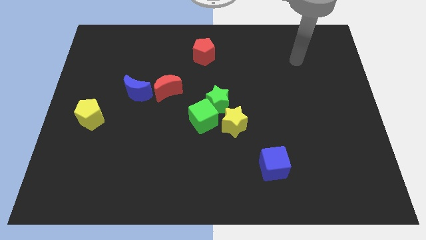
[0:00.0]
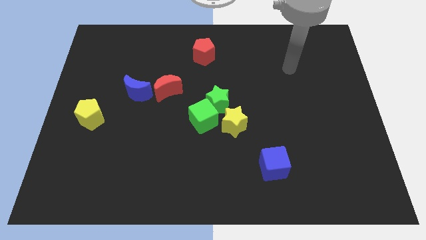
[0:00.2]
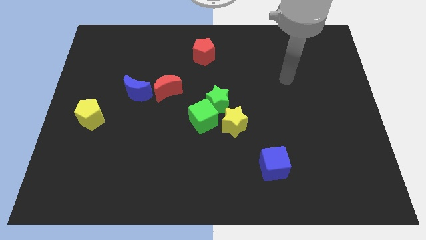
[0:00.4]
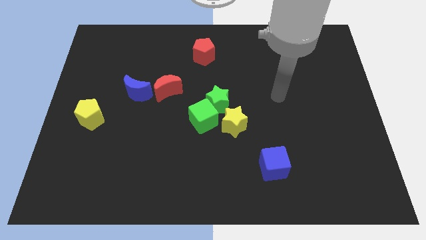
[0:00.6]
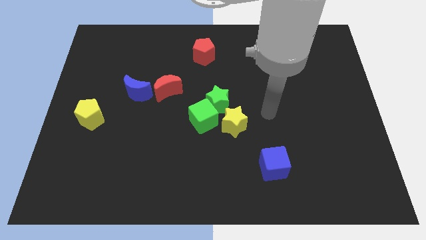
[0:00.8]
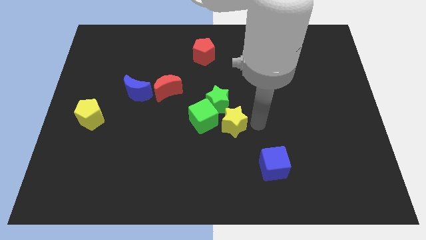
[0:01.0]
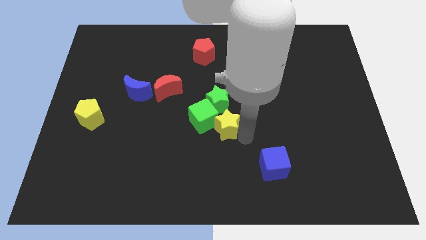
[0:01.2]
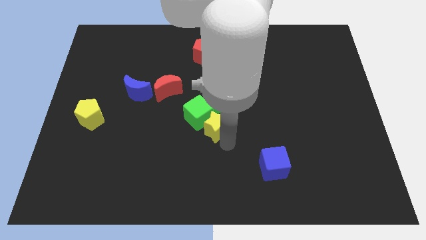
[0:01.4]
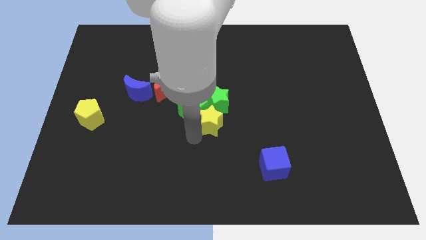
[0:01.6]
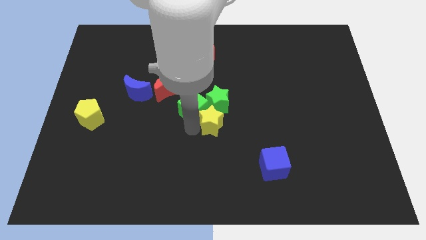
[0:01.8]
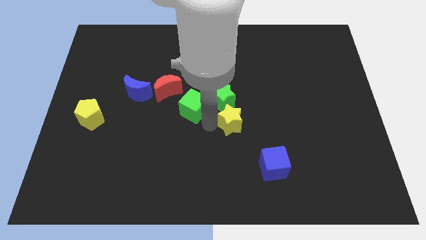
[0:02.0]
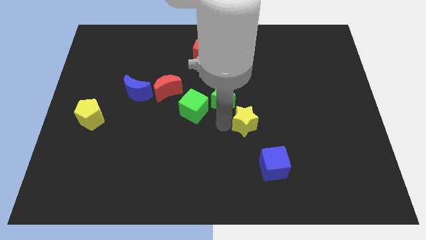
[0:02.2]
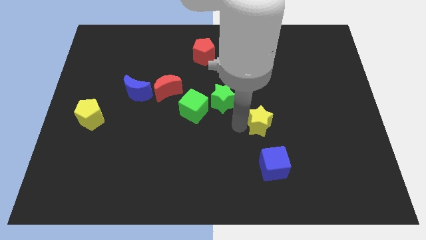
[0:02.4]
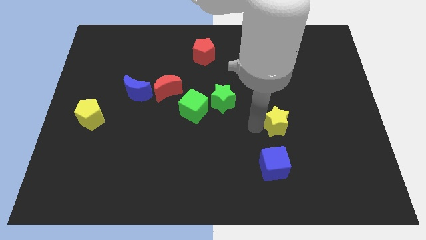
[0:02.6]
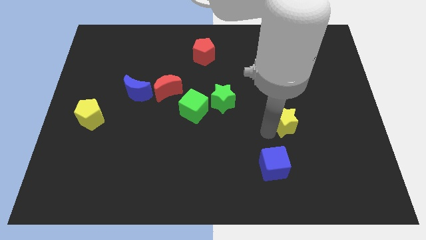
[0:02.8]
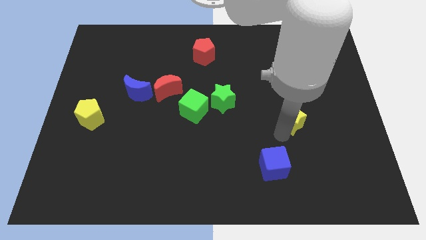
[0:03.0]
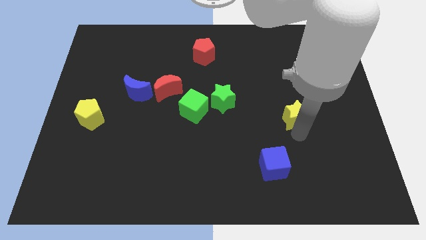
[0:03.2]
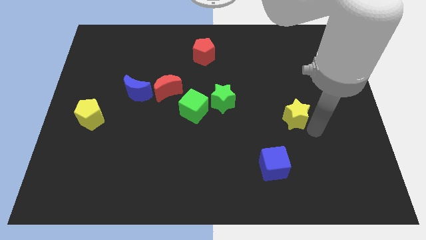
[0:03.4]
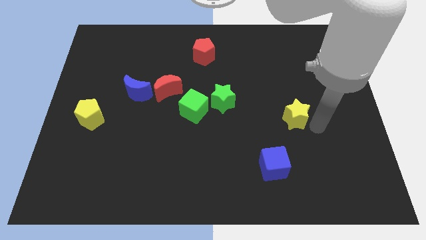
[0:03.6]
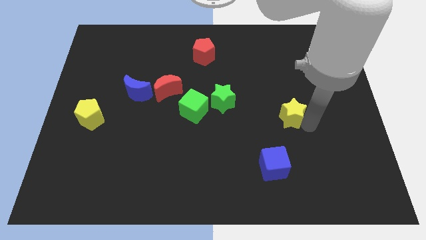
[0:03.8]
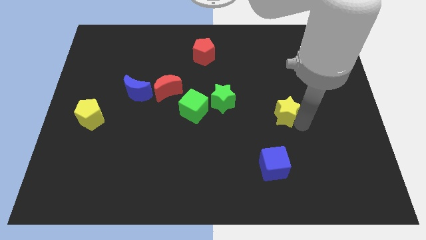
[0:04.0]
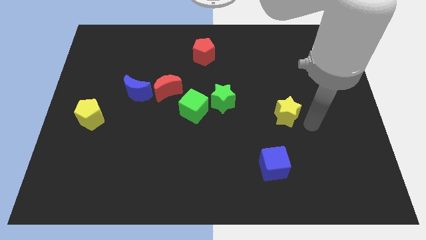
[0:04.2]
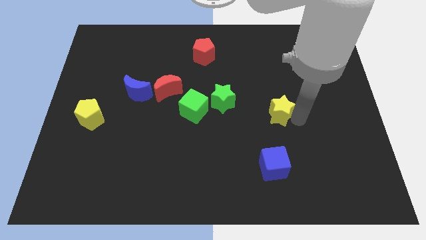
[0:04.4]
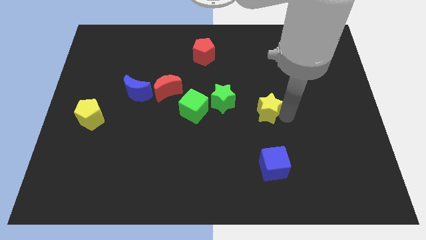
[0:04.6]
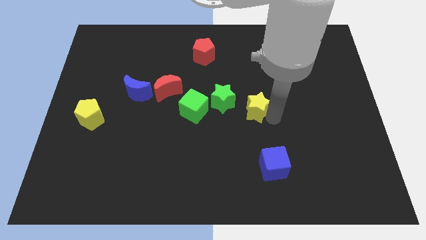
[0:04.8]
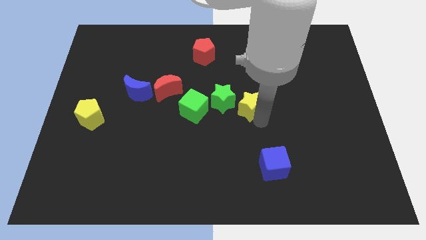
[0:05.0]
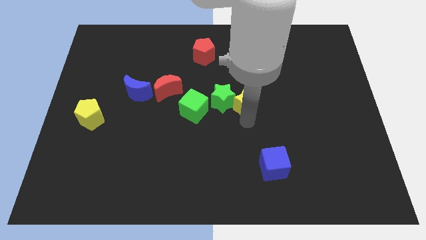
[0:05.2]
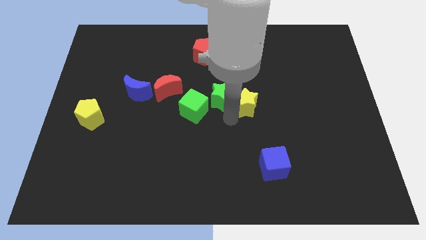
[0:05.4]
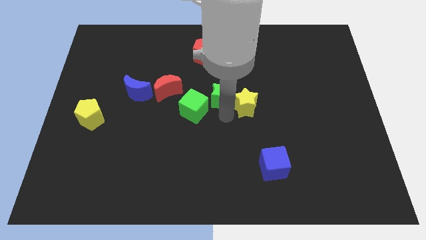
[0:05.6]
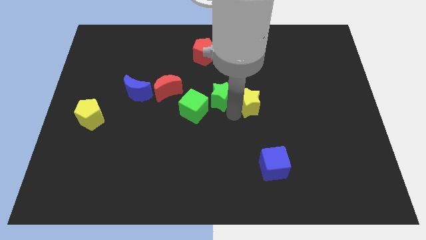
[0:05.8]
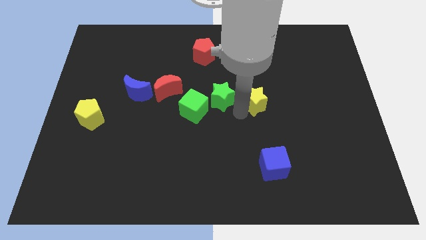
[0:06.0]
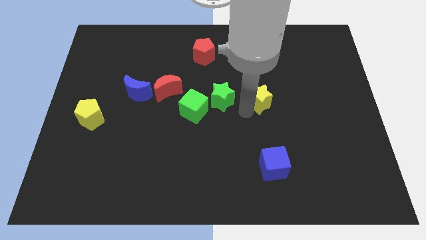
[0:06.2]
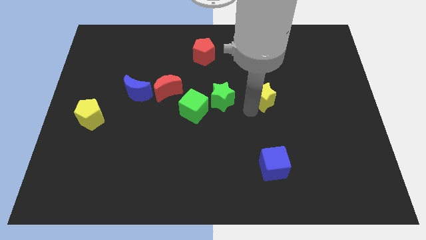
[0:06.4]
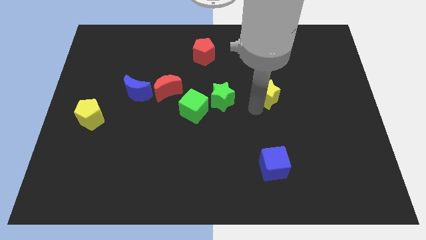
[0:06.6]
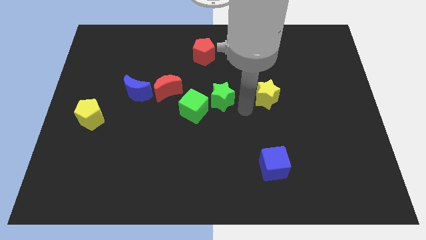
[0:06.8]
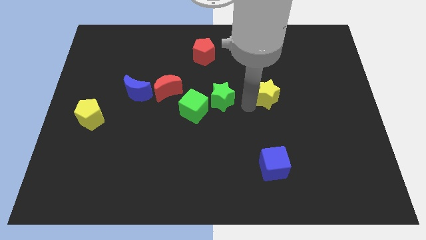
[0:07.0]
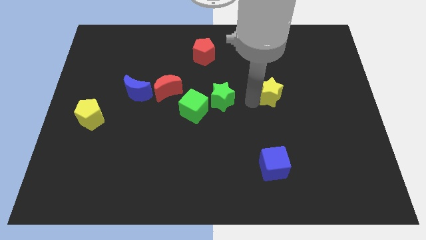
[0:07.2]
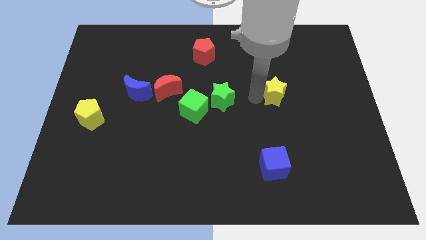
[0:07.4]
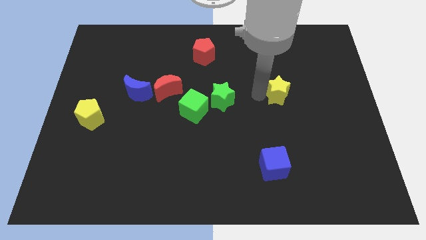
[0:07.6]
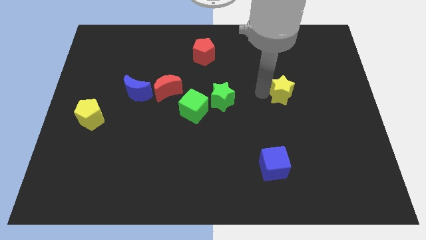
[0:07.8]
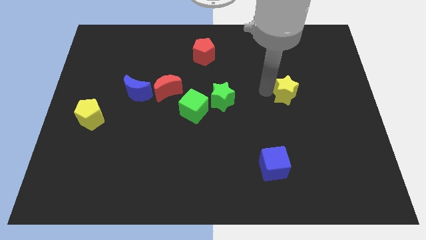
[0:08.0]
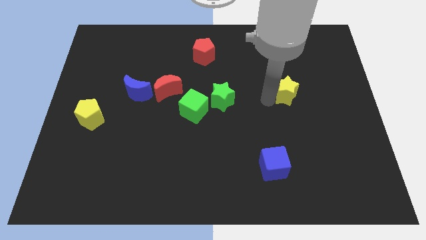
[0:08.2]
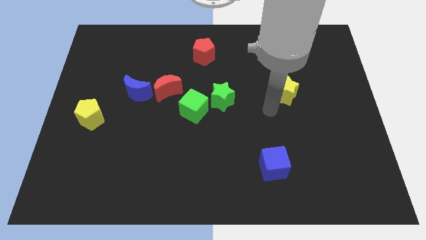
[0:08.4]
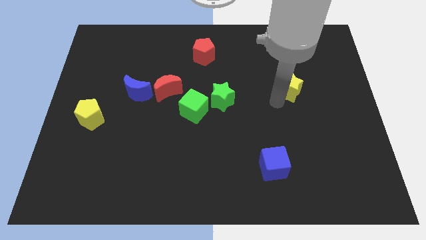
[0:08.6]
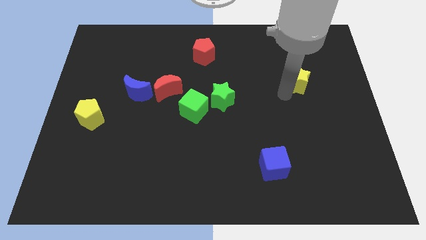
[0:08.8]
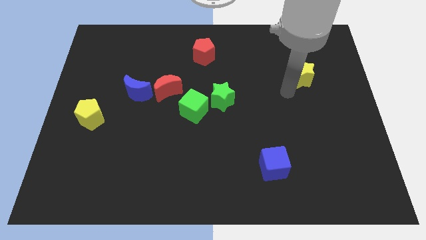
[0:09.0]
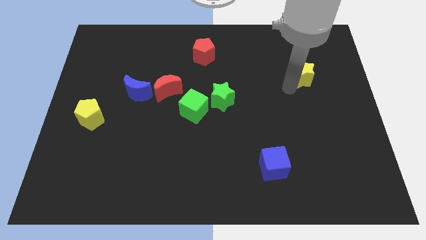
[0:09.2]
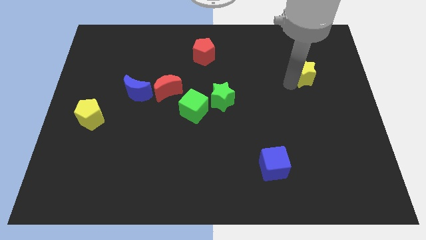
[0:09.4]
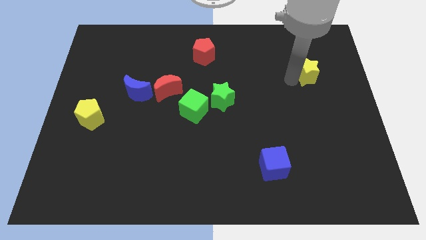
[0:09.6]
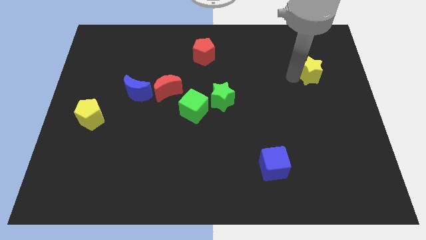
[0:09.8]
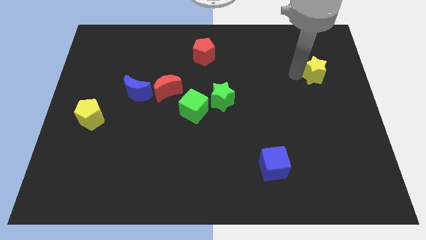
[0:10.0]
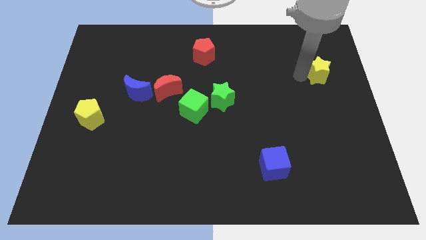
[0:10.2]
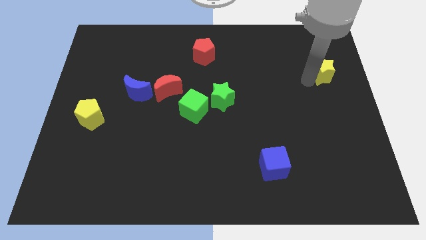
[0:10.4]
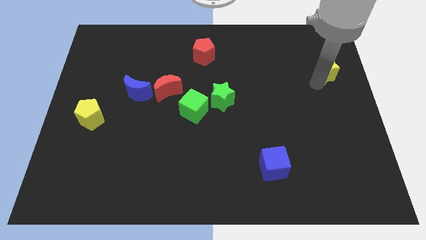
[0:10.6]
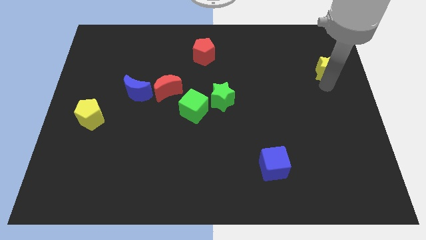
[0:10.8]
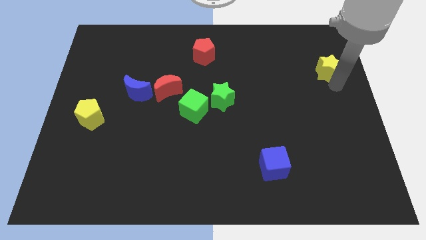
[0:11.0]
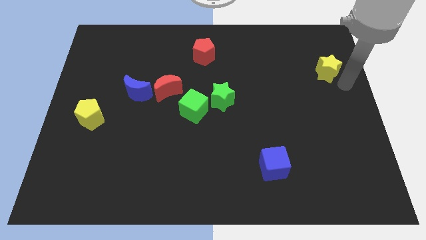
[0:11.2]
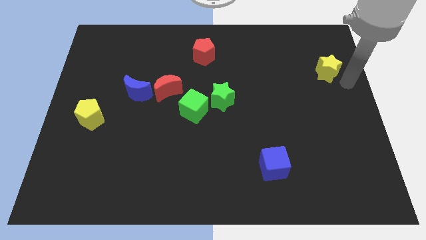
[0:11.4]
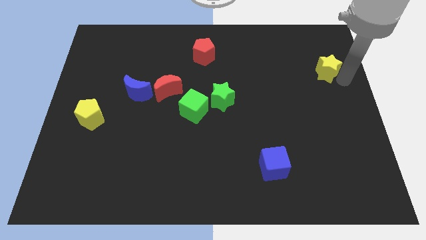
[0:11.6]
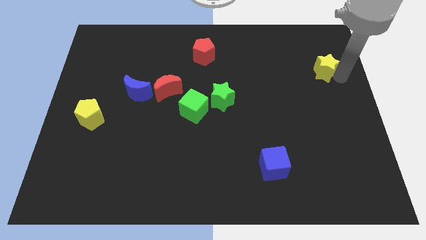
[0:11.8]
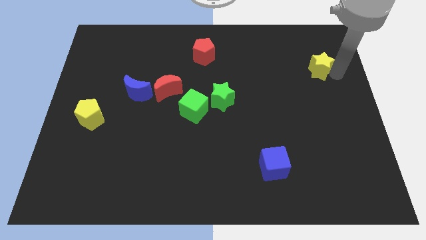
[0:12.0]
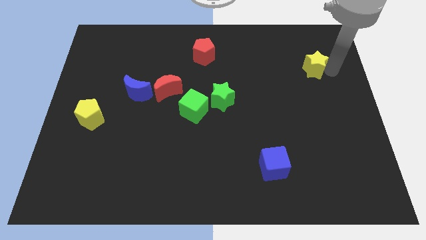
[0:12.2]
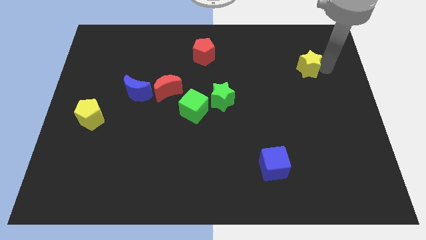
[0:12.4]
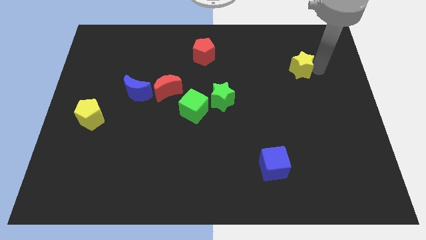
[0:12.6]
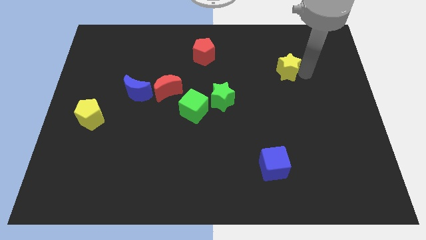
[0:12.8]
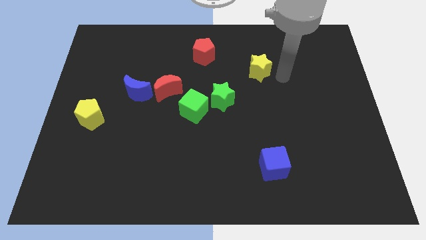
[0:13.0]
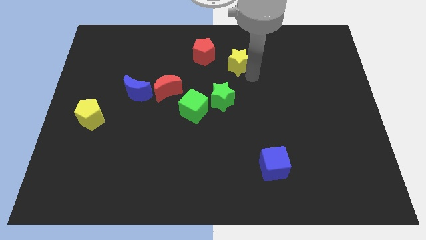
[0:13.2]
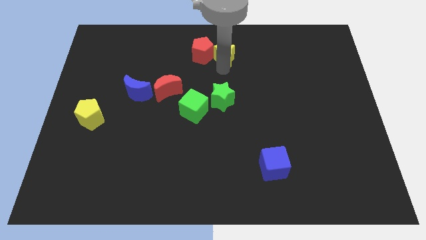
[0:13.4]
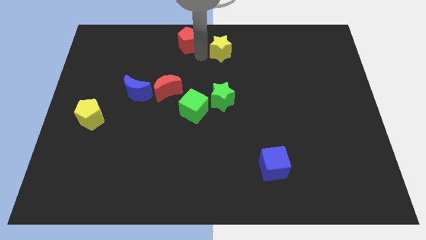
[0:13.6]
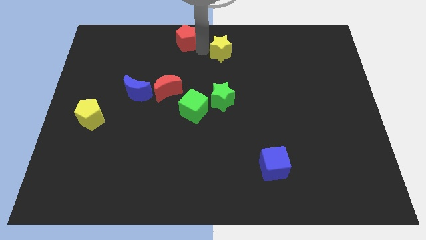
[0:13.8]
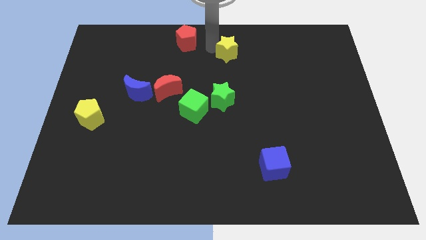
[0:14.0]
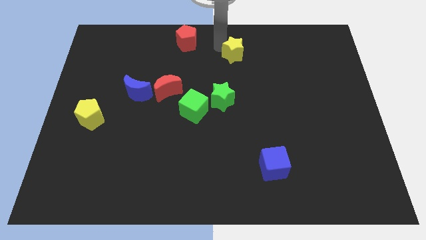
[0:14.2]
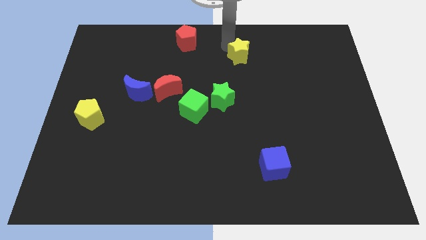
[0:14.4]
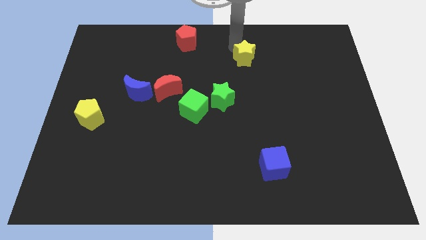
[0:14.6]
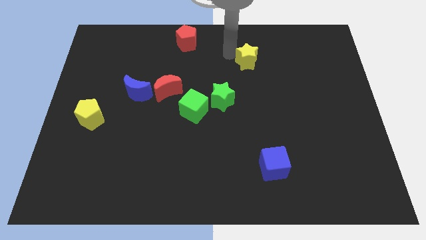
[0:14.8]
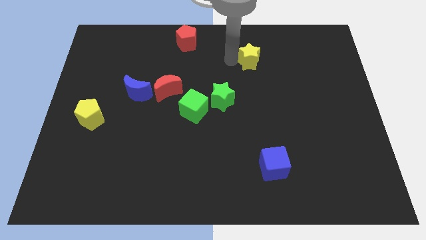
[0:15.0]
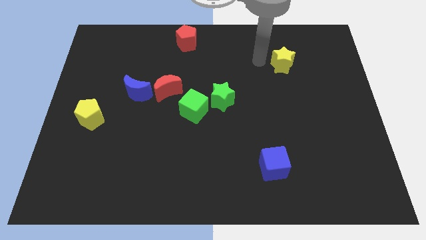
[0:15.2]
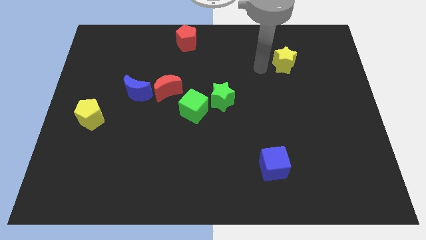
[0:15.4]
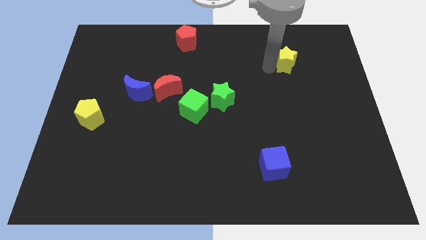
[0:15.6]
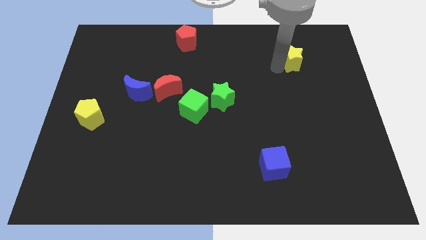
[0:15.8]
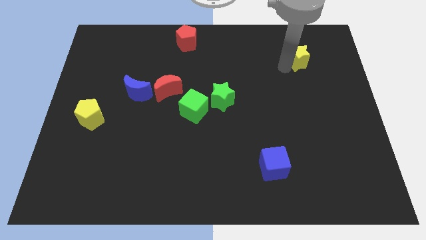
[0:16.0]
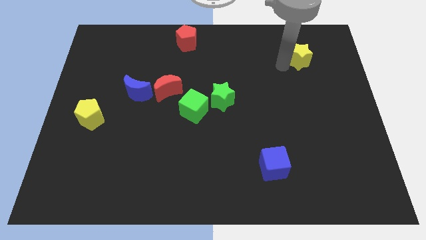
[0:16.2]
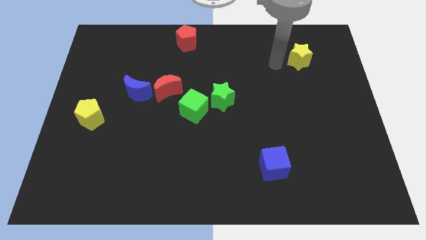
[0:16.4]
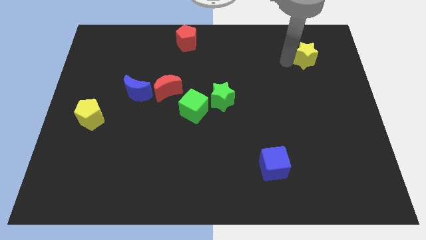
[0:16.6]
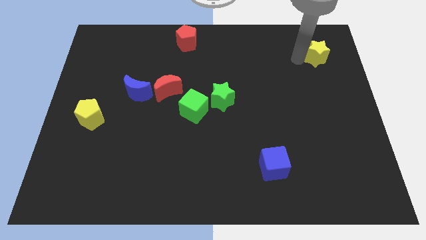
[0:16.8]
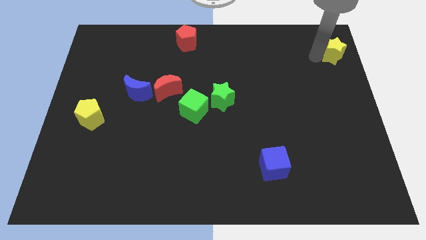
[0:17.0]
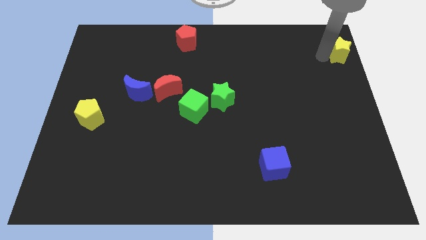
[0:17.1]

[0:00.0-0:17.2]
slide the yellow star to the top right corner
